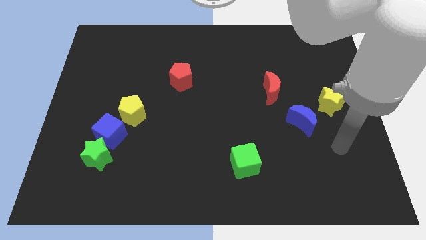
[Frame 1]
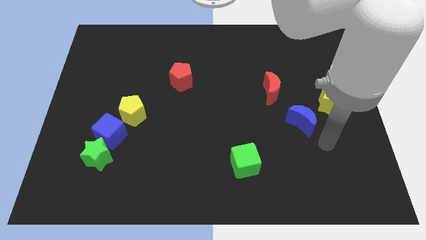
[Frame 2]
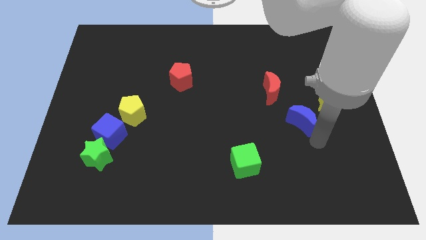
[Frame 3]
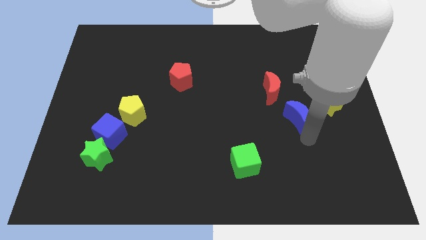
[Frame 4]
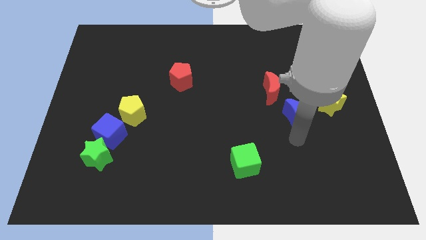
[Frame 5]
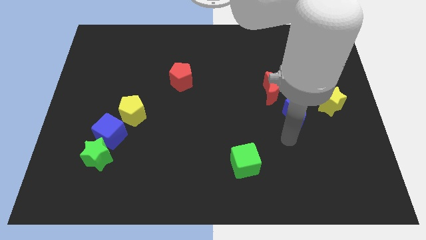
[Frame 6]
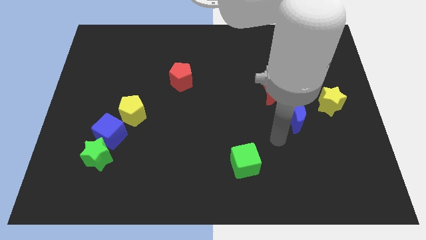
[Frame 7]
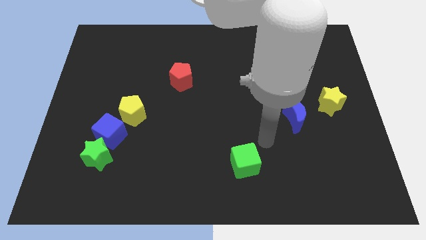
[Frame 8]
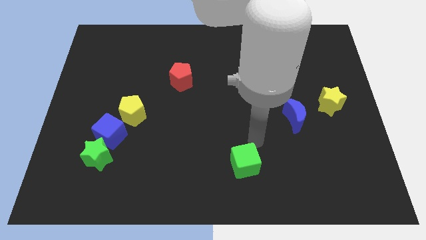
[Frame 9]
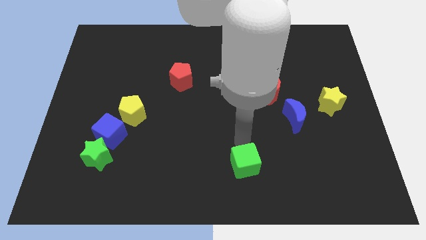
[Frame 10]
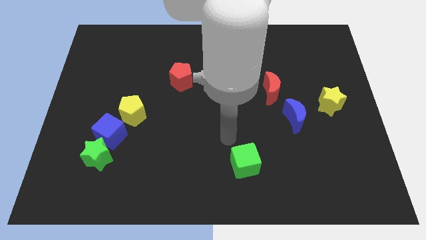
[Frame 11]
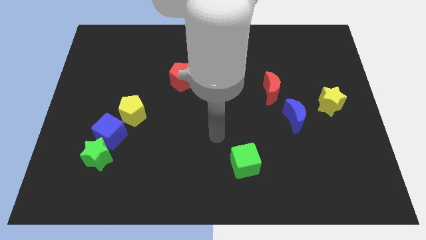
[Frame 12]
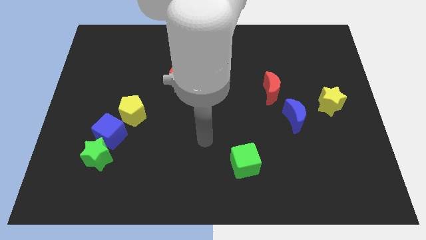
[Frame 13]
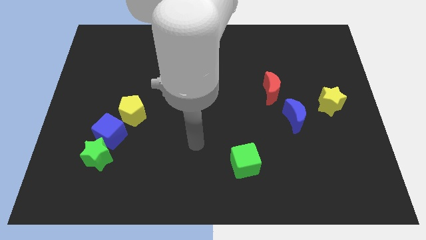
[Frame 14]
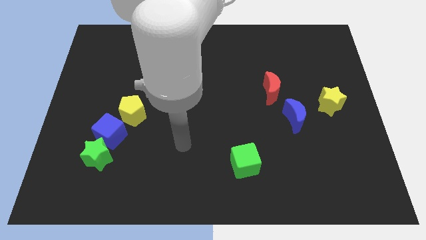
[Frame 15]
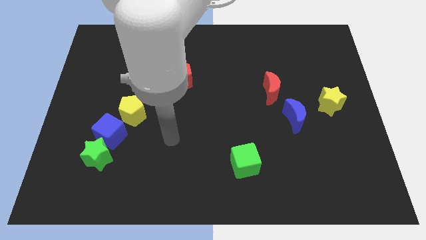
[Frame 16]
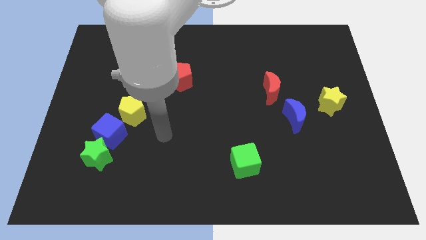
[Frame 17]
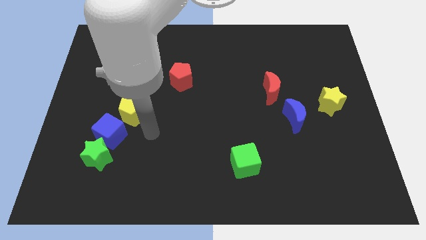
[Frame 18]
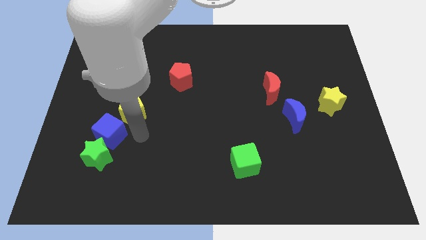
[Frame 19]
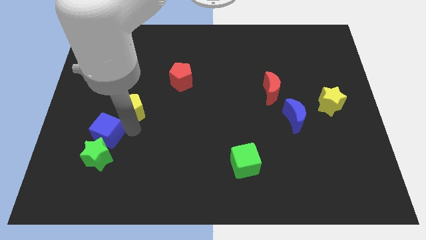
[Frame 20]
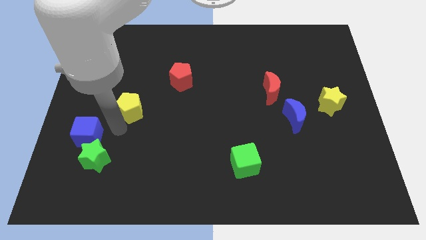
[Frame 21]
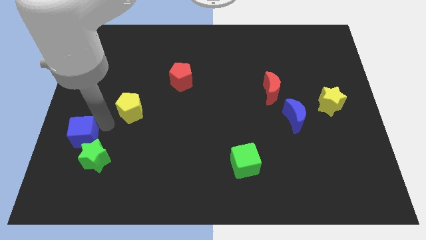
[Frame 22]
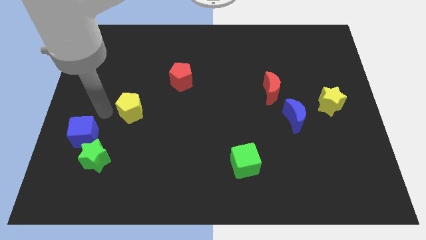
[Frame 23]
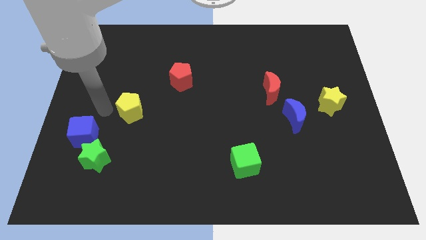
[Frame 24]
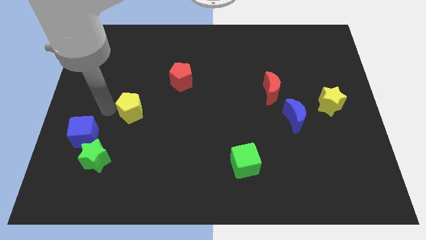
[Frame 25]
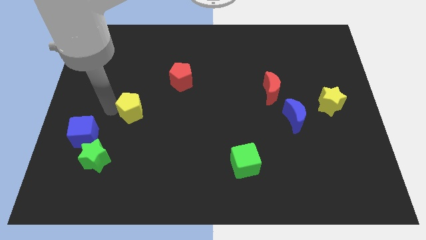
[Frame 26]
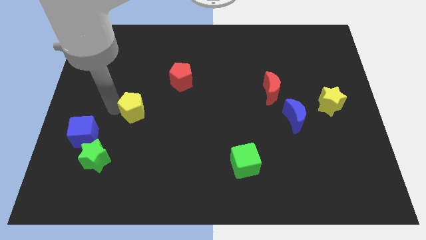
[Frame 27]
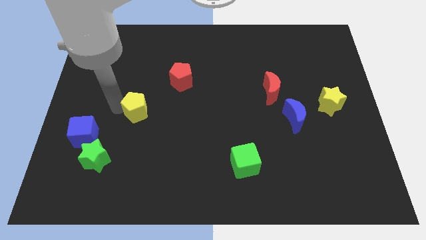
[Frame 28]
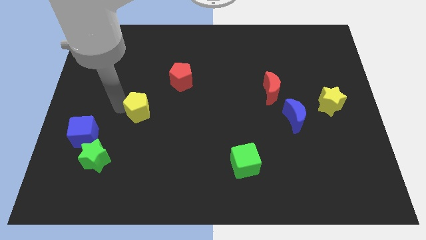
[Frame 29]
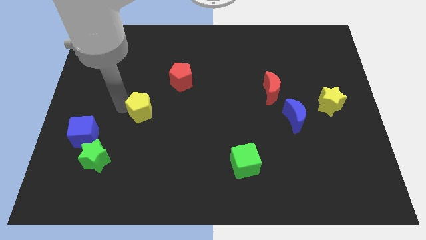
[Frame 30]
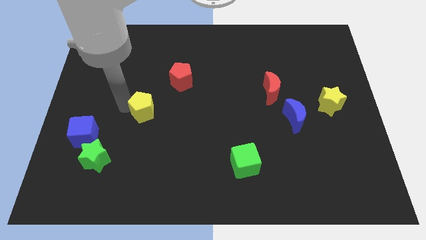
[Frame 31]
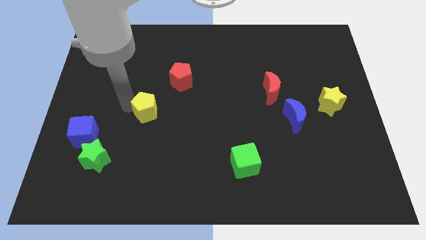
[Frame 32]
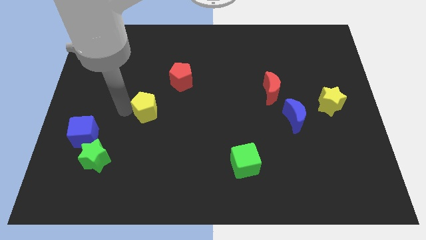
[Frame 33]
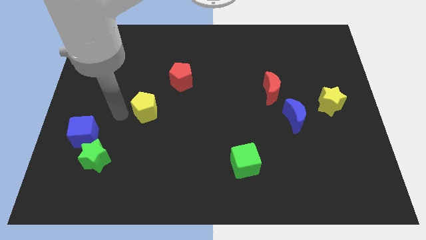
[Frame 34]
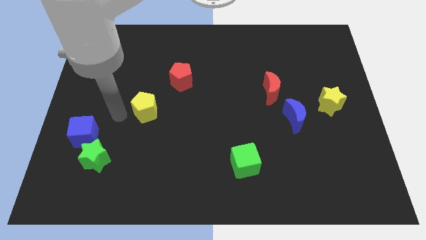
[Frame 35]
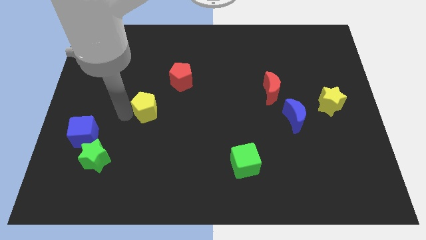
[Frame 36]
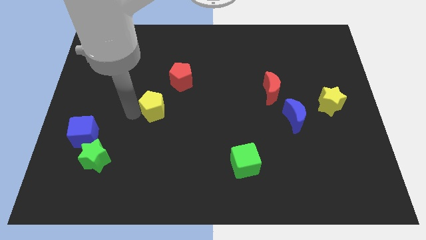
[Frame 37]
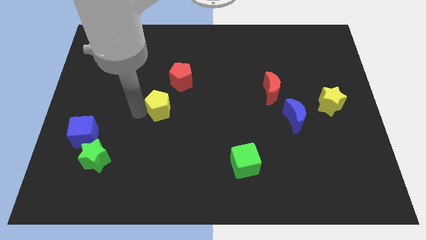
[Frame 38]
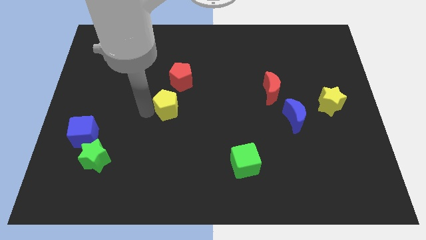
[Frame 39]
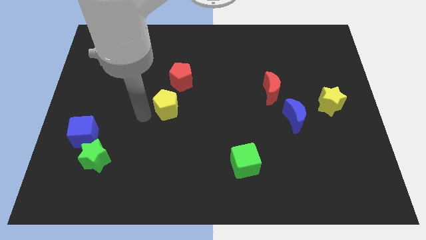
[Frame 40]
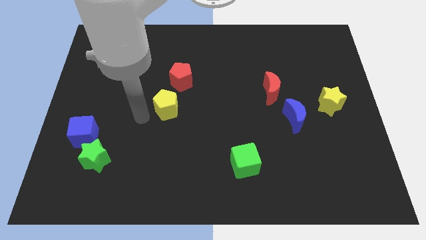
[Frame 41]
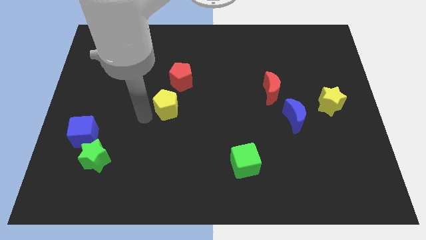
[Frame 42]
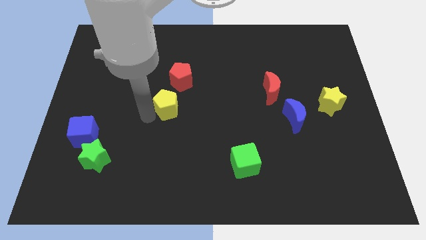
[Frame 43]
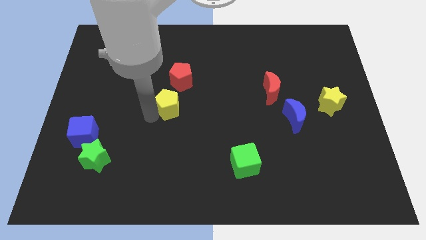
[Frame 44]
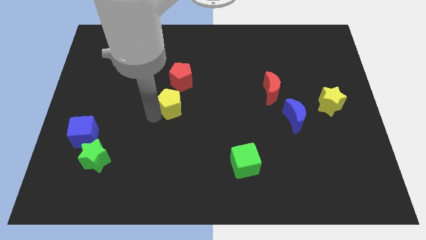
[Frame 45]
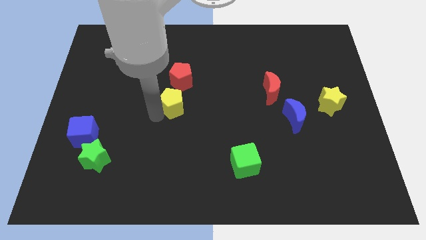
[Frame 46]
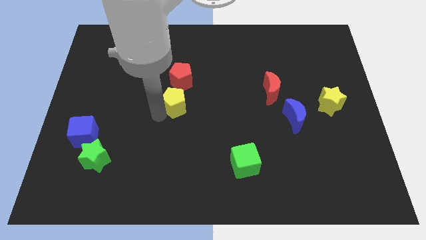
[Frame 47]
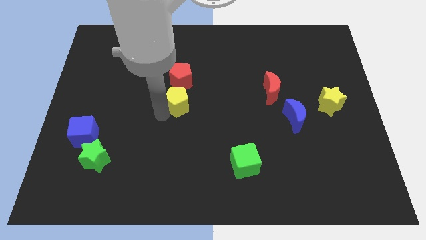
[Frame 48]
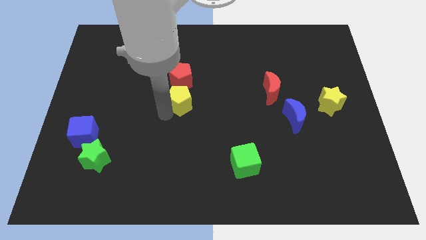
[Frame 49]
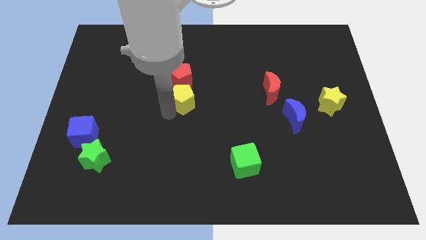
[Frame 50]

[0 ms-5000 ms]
put the yellow pentagon to the bottom right of the red pentagon

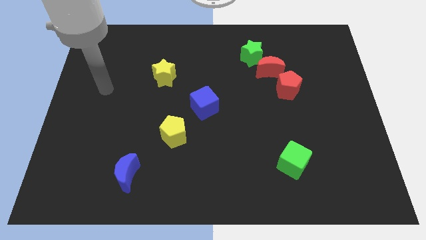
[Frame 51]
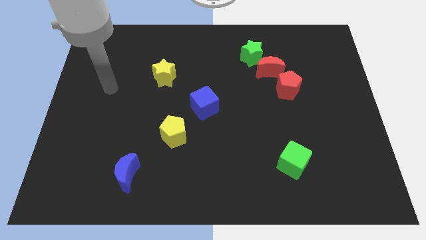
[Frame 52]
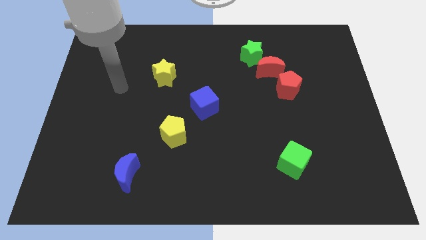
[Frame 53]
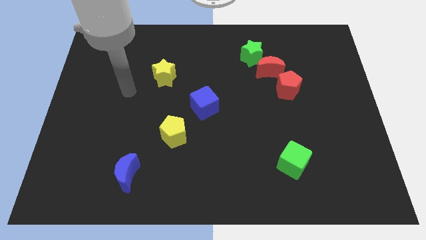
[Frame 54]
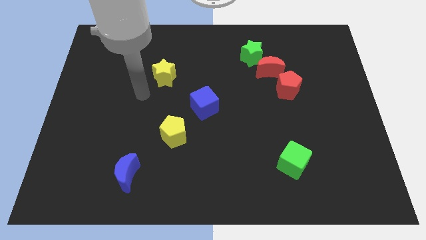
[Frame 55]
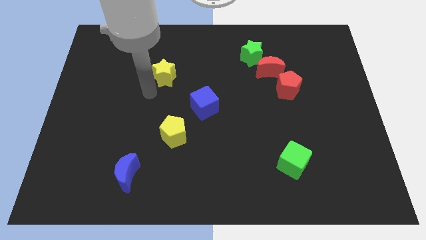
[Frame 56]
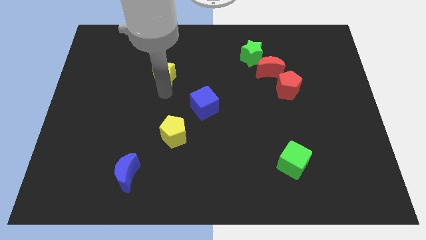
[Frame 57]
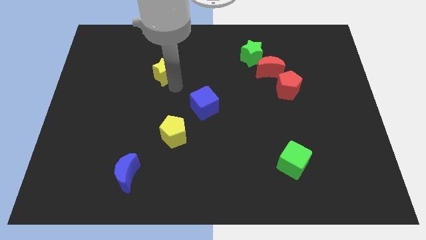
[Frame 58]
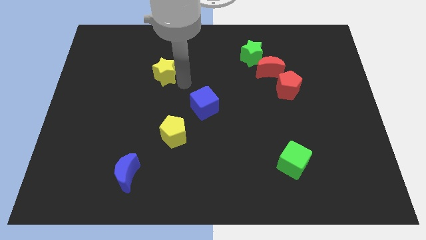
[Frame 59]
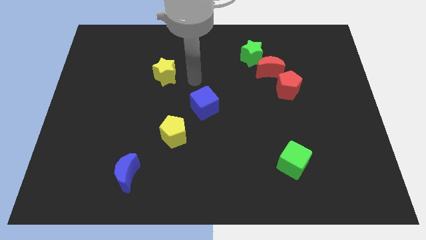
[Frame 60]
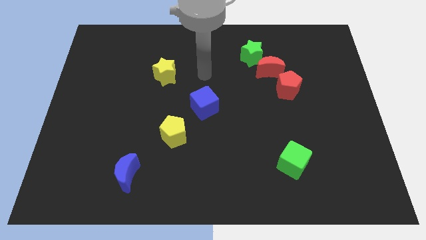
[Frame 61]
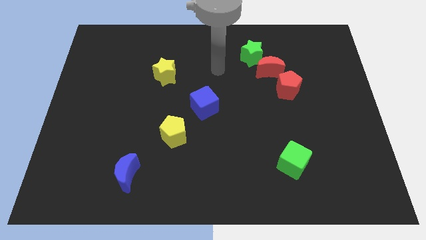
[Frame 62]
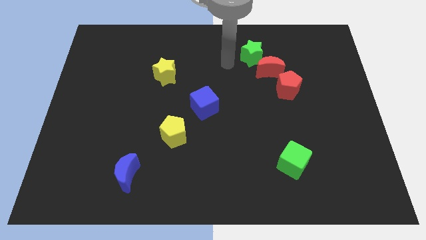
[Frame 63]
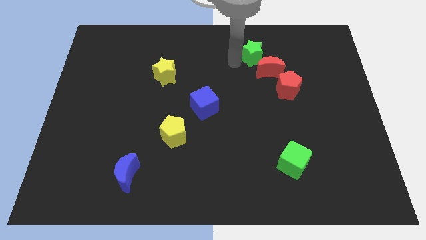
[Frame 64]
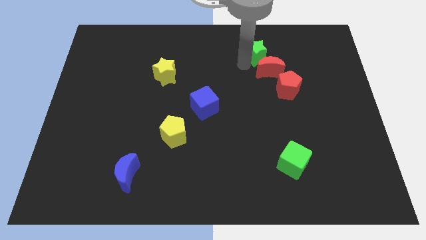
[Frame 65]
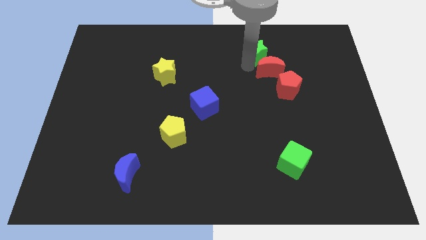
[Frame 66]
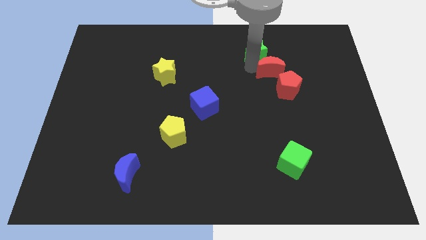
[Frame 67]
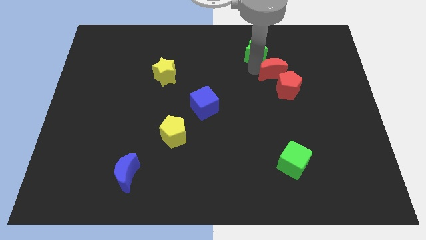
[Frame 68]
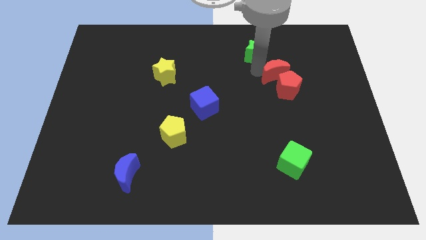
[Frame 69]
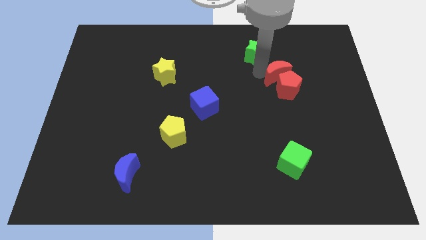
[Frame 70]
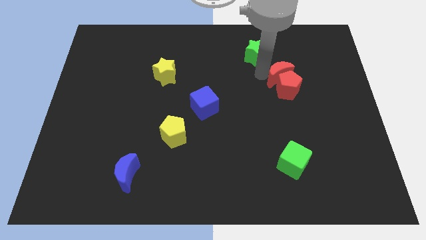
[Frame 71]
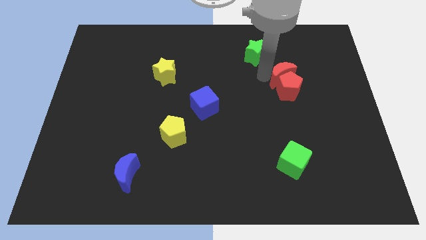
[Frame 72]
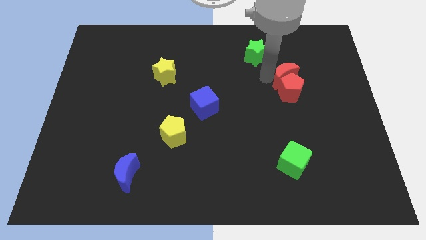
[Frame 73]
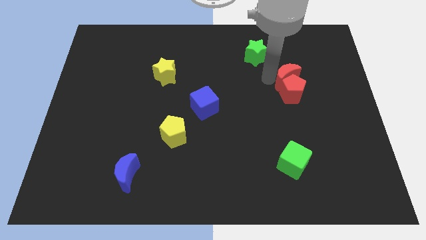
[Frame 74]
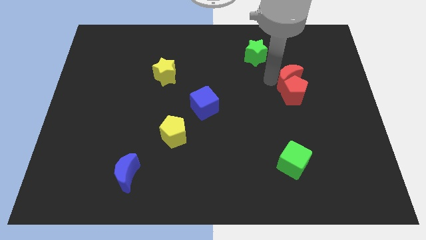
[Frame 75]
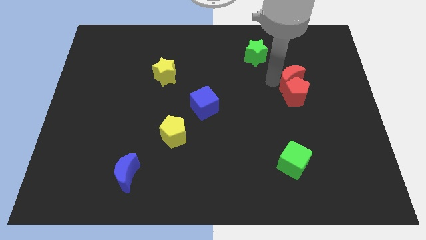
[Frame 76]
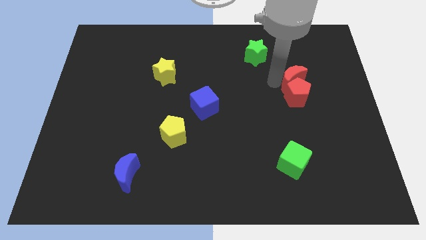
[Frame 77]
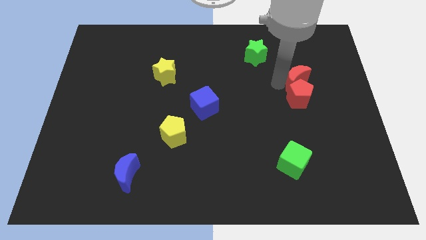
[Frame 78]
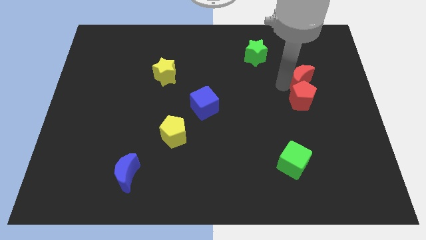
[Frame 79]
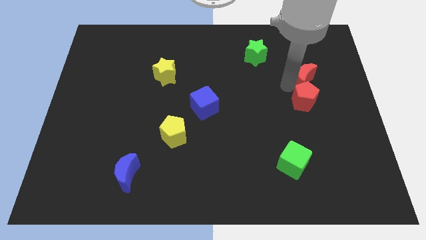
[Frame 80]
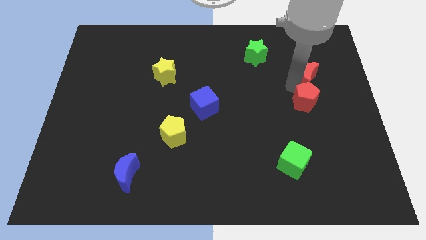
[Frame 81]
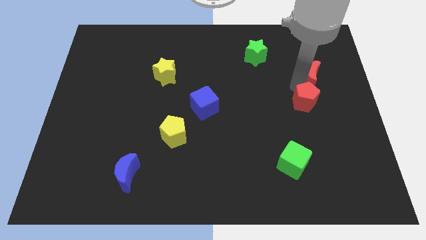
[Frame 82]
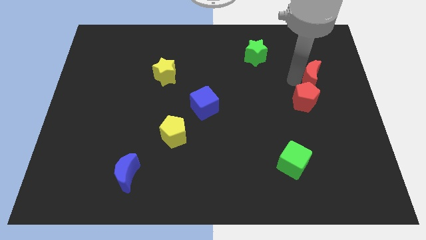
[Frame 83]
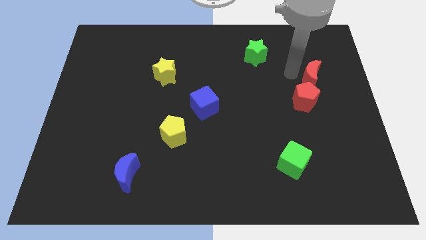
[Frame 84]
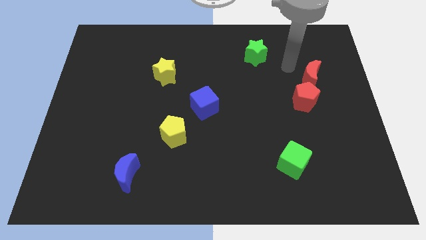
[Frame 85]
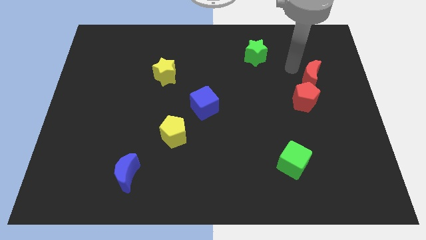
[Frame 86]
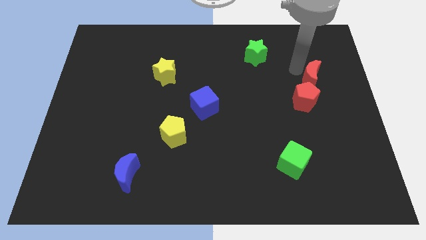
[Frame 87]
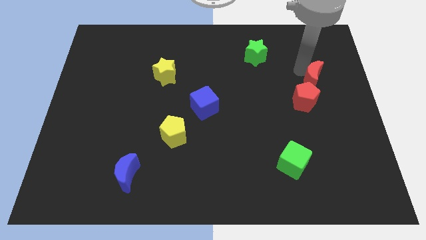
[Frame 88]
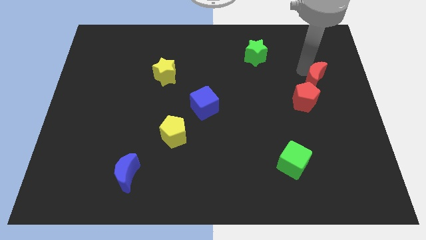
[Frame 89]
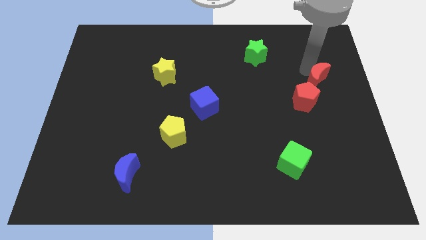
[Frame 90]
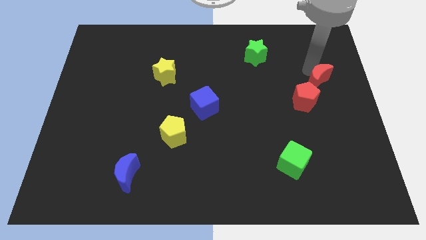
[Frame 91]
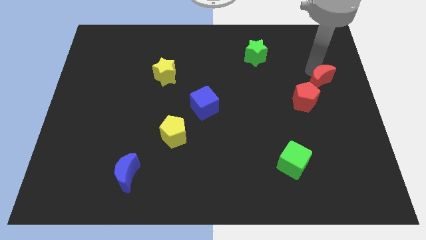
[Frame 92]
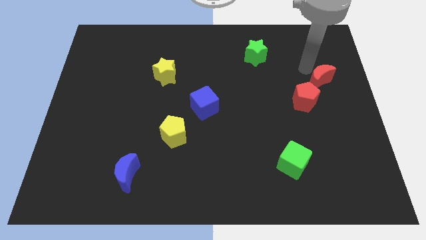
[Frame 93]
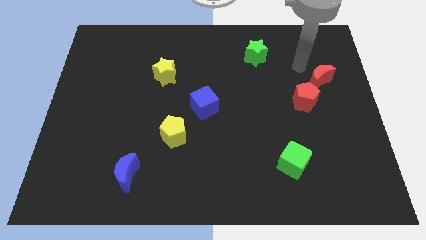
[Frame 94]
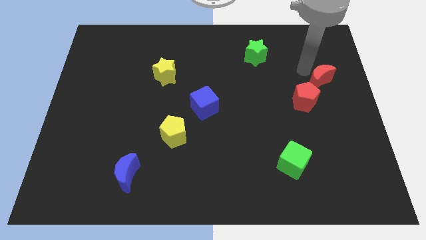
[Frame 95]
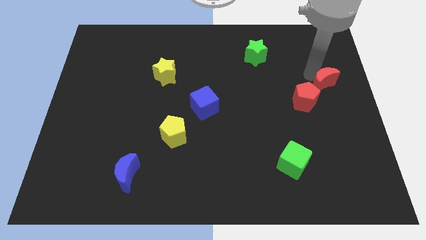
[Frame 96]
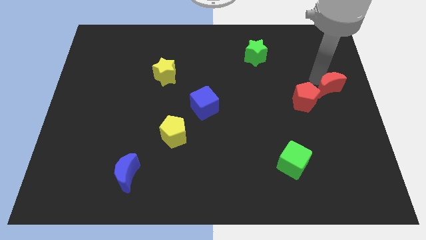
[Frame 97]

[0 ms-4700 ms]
slide the red moon to the right of the red pentagon
